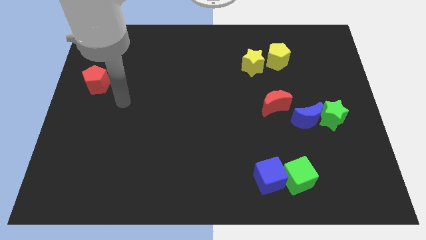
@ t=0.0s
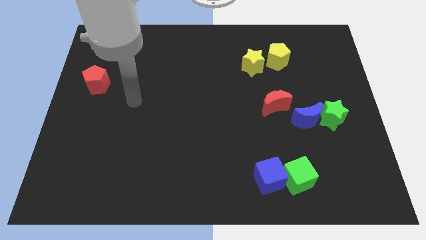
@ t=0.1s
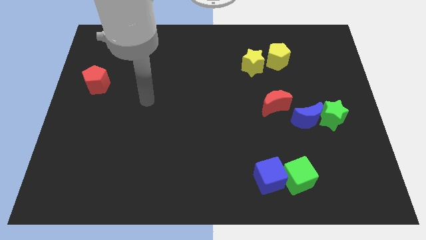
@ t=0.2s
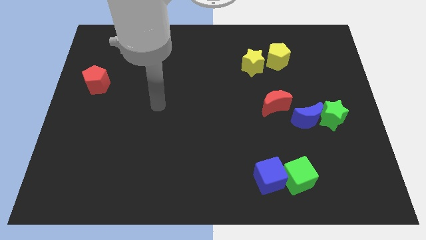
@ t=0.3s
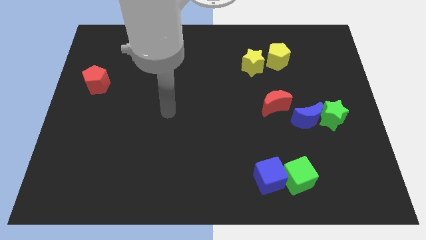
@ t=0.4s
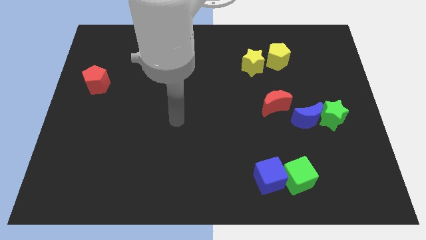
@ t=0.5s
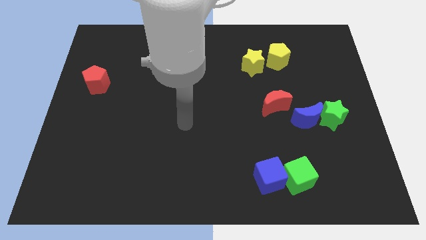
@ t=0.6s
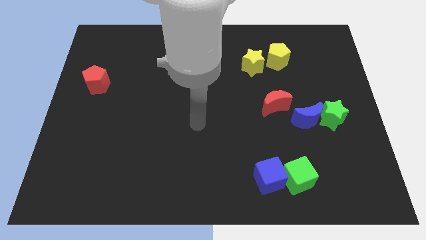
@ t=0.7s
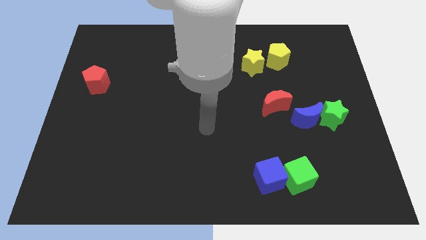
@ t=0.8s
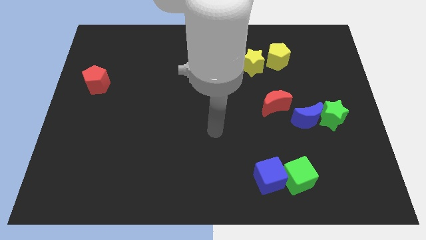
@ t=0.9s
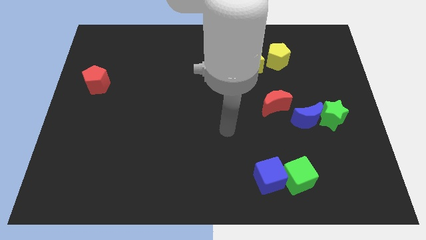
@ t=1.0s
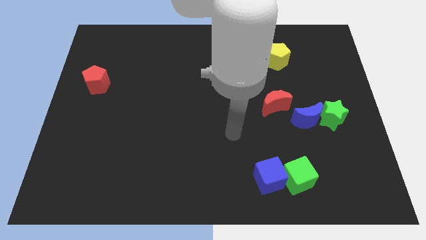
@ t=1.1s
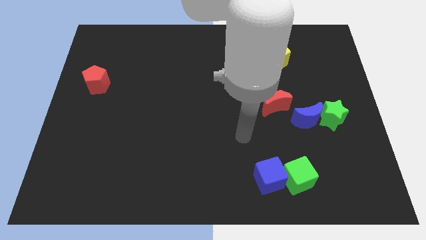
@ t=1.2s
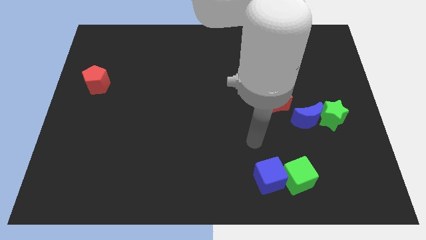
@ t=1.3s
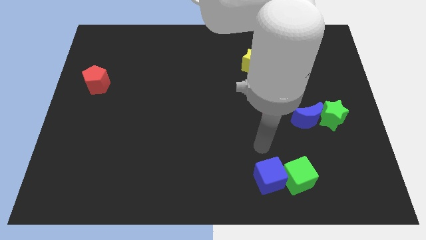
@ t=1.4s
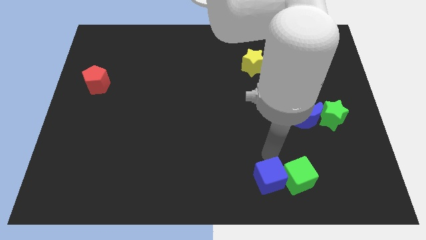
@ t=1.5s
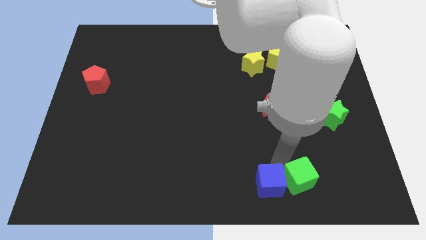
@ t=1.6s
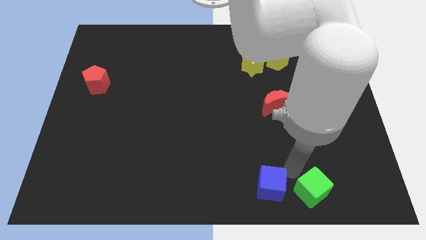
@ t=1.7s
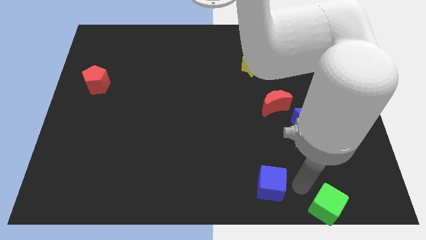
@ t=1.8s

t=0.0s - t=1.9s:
separate the blue cube from the green cube

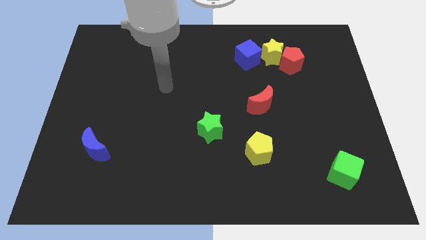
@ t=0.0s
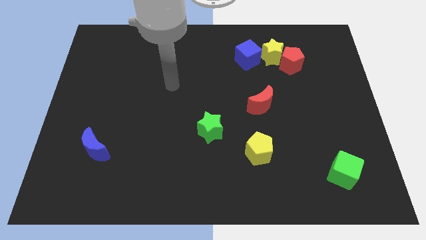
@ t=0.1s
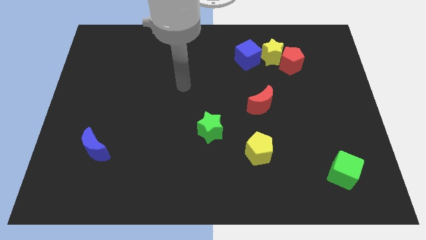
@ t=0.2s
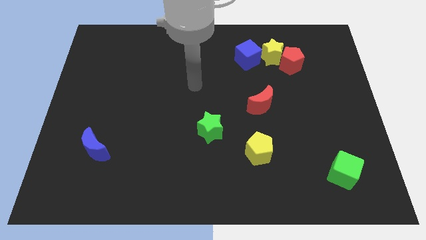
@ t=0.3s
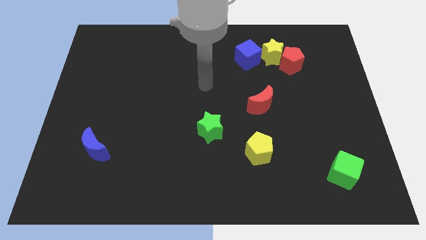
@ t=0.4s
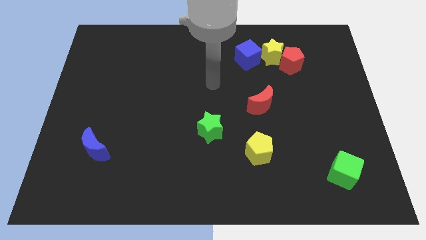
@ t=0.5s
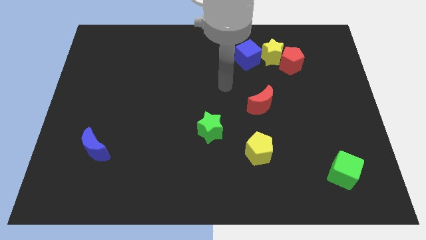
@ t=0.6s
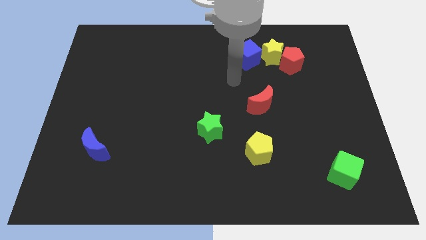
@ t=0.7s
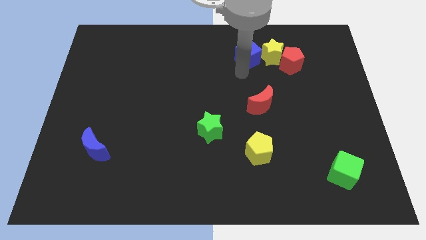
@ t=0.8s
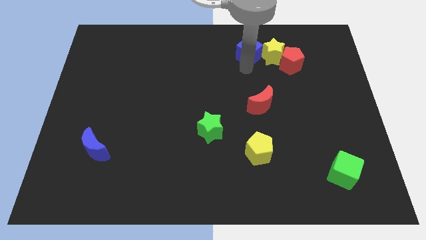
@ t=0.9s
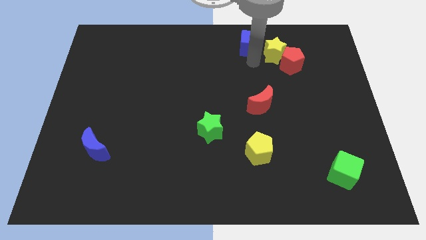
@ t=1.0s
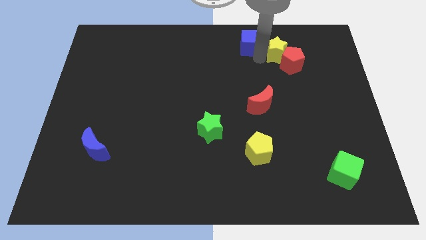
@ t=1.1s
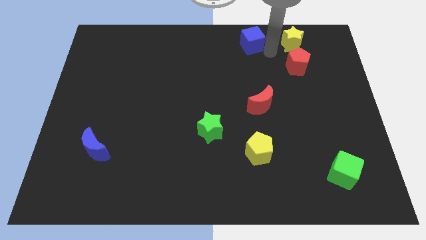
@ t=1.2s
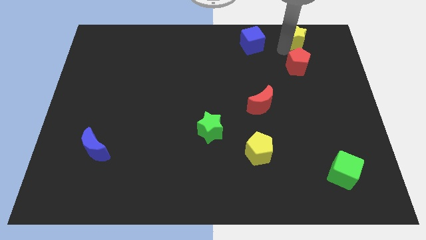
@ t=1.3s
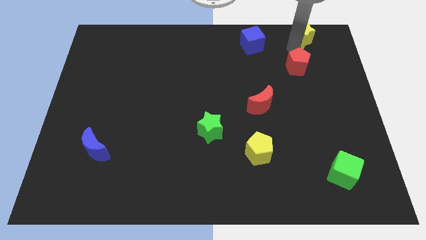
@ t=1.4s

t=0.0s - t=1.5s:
separate the red pentagon from the yellow star

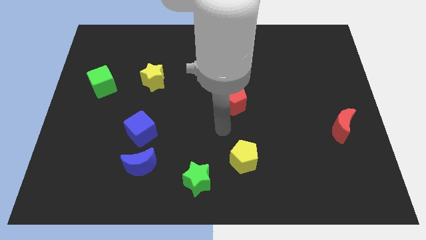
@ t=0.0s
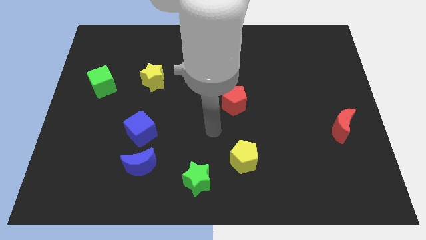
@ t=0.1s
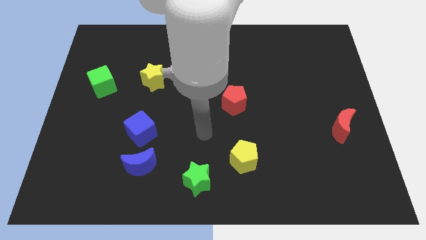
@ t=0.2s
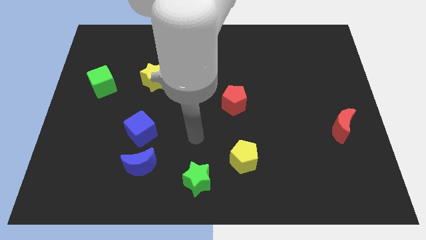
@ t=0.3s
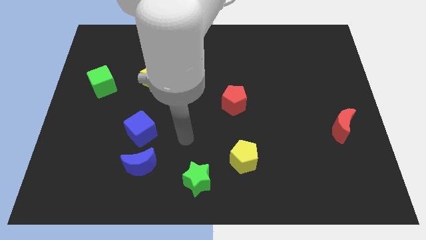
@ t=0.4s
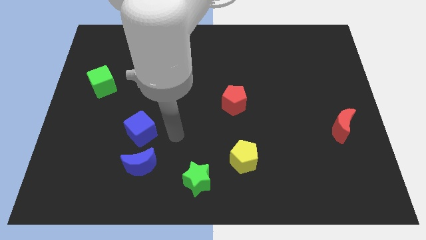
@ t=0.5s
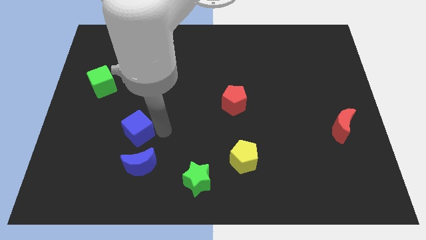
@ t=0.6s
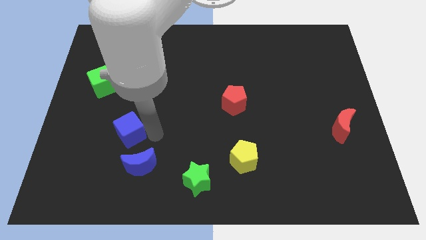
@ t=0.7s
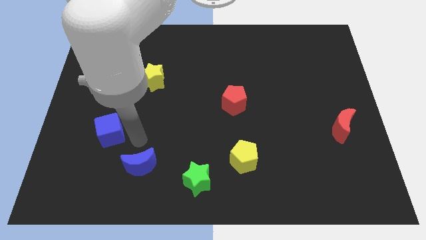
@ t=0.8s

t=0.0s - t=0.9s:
pull the blue moon apart from the blue cube

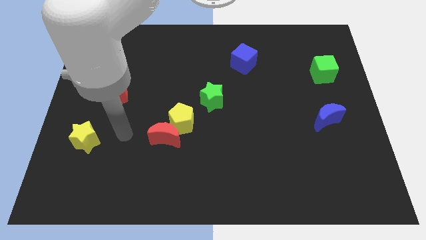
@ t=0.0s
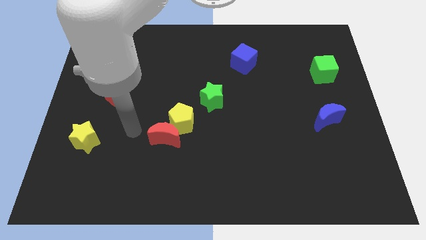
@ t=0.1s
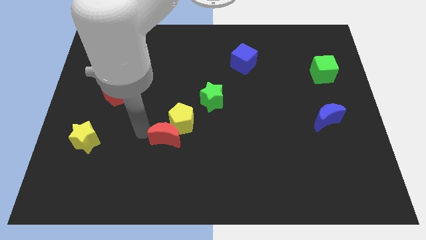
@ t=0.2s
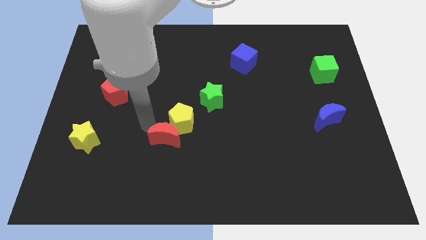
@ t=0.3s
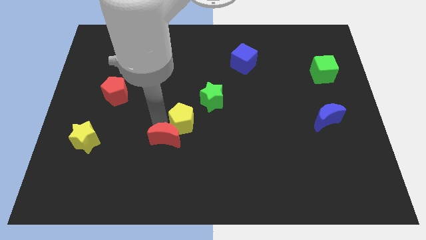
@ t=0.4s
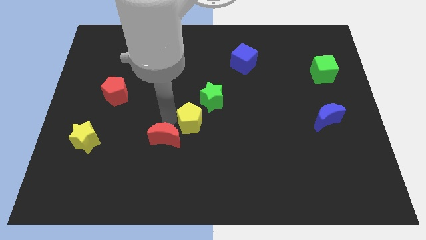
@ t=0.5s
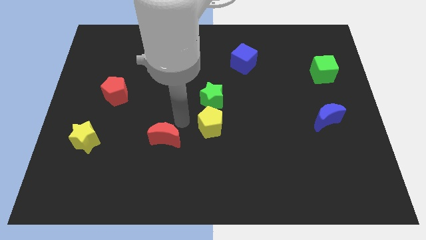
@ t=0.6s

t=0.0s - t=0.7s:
move the red moon away from the yellow pentagon

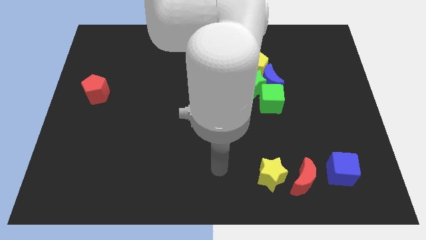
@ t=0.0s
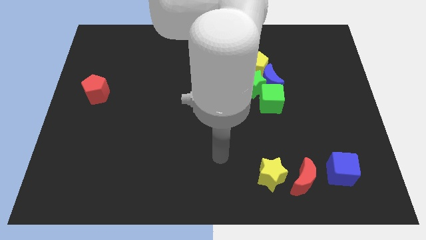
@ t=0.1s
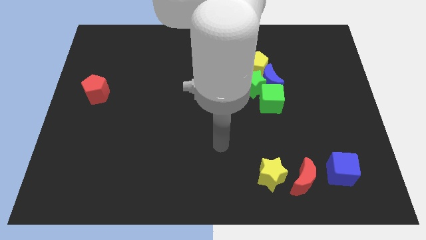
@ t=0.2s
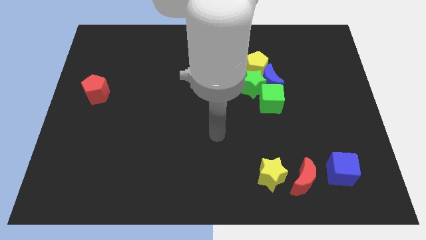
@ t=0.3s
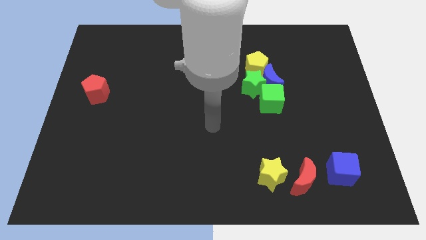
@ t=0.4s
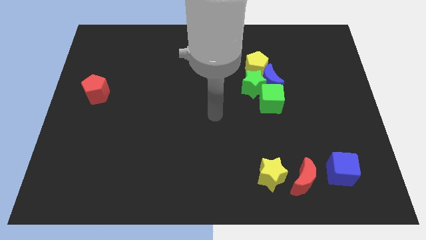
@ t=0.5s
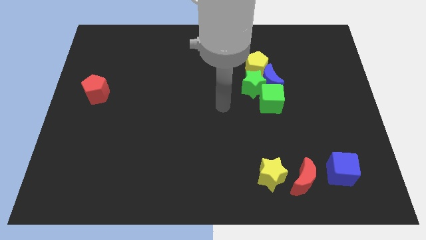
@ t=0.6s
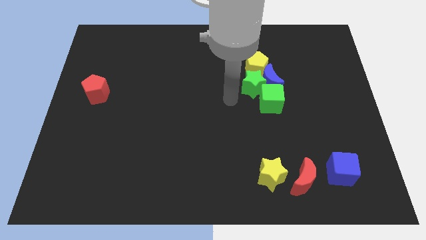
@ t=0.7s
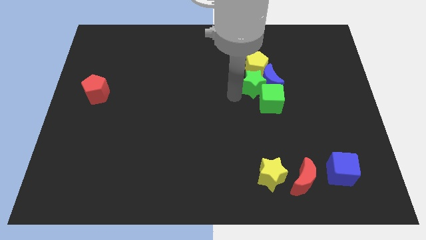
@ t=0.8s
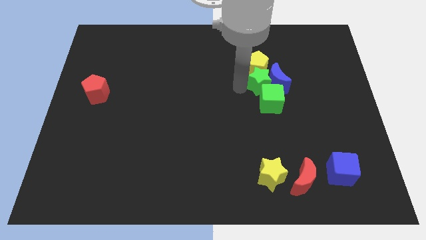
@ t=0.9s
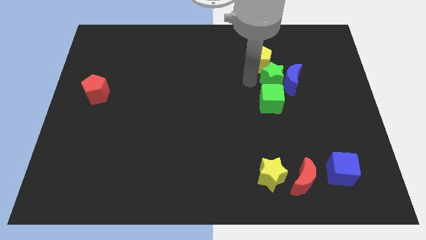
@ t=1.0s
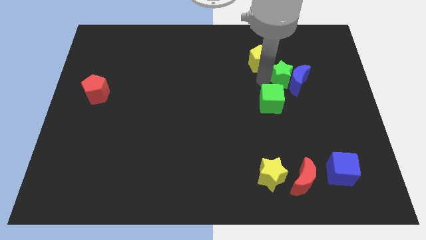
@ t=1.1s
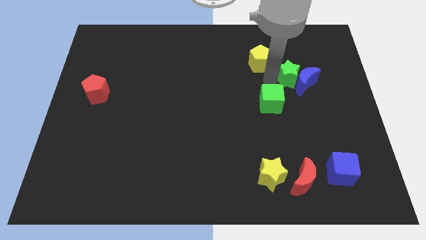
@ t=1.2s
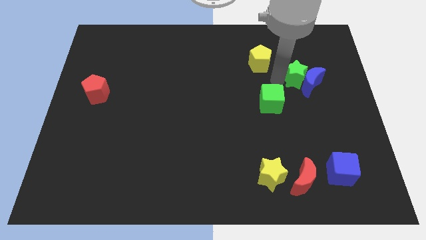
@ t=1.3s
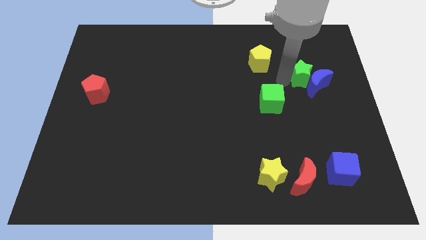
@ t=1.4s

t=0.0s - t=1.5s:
move the blue moon away from the clump

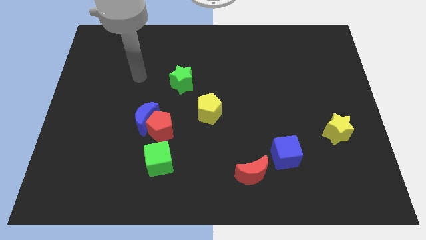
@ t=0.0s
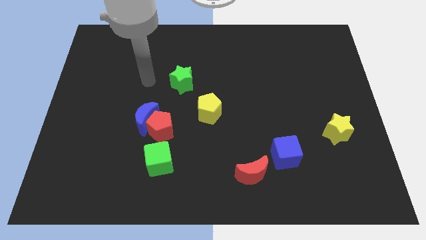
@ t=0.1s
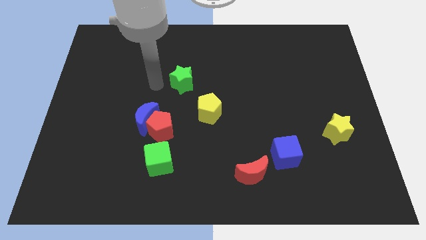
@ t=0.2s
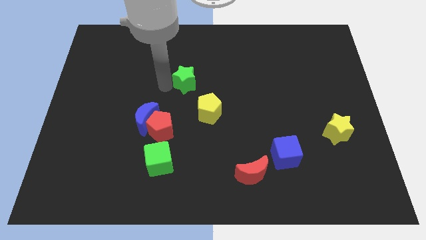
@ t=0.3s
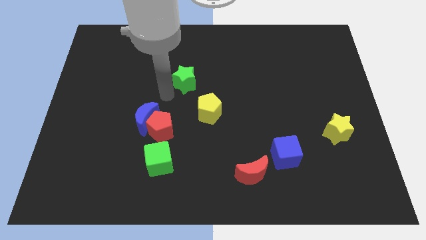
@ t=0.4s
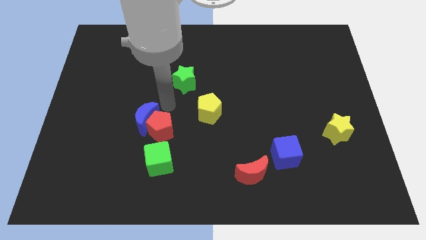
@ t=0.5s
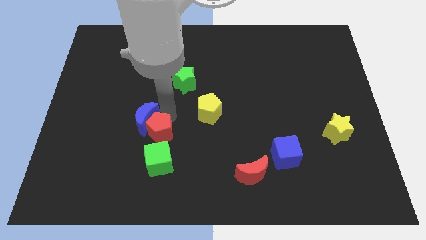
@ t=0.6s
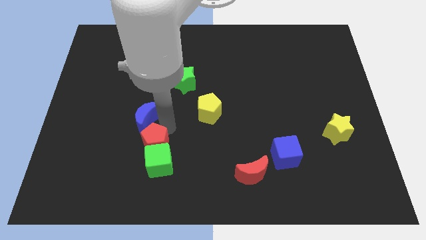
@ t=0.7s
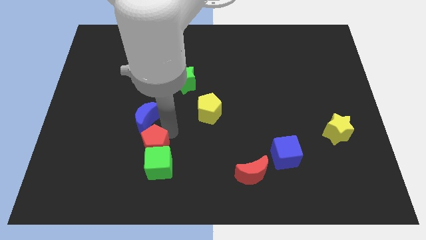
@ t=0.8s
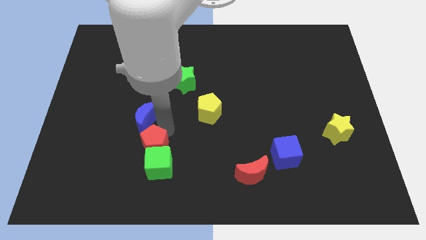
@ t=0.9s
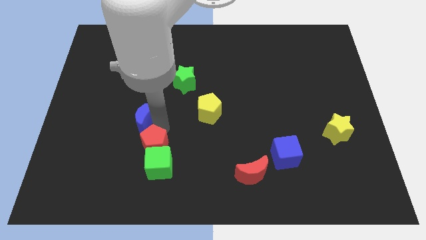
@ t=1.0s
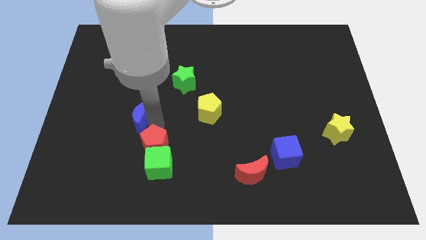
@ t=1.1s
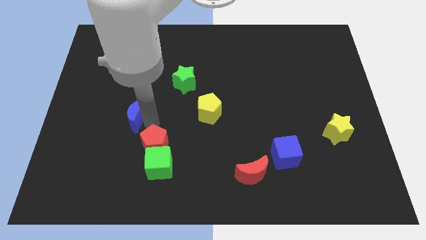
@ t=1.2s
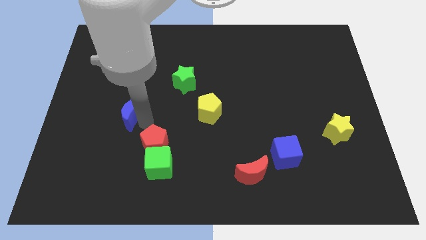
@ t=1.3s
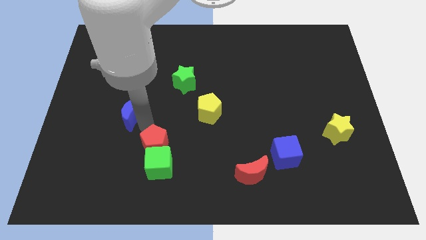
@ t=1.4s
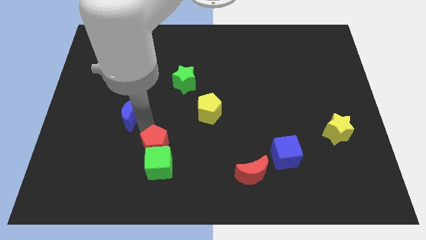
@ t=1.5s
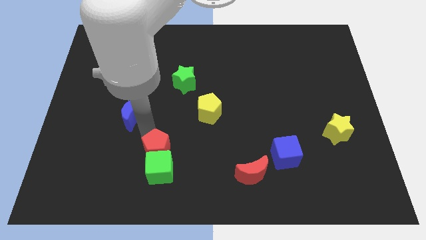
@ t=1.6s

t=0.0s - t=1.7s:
move the blue moon away from the red pentagon

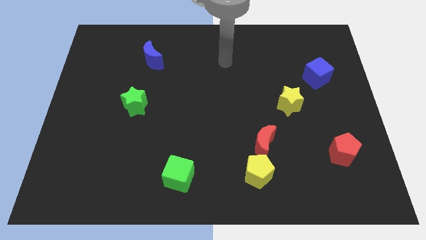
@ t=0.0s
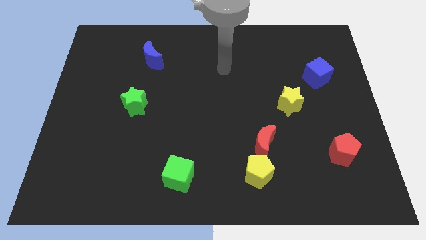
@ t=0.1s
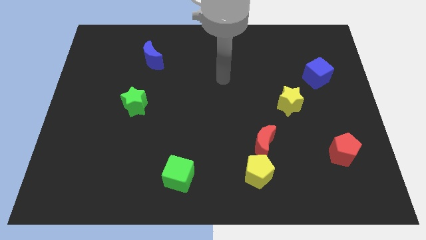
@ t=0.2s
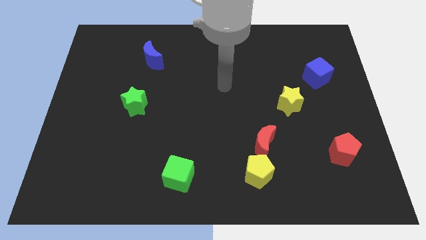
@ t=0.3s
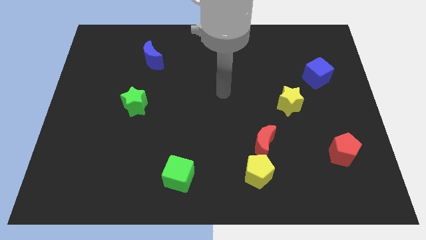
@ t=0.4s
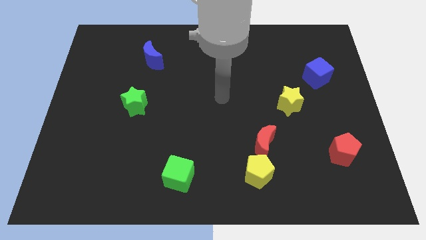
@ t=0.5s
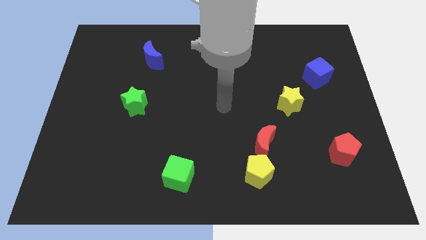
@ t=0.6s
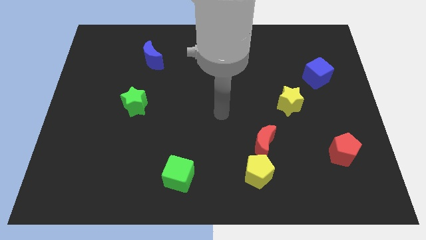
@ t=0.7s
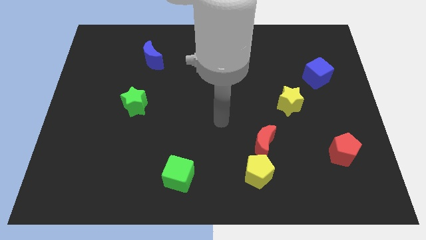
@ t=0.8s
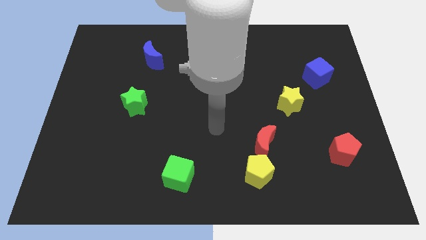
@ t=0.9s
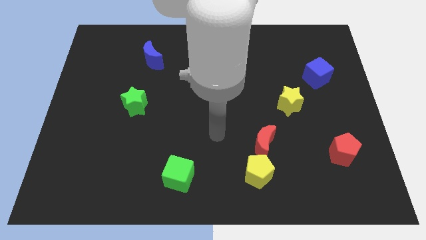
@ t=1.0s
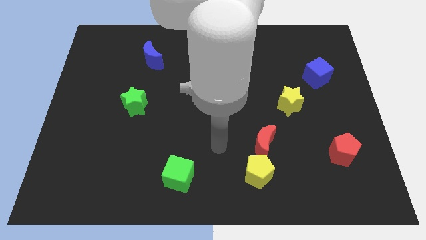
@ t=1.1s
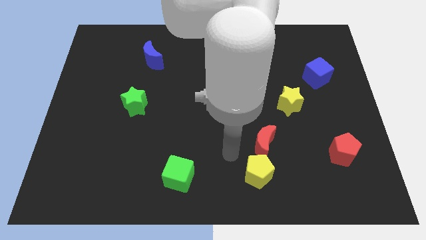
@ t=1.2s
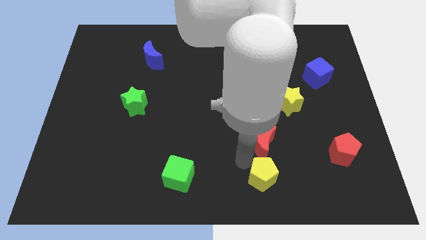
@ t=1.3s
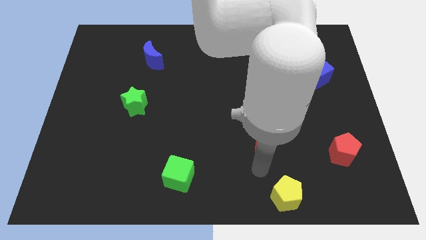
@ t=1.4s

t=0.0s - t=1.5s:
separate the red moon from the yellow pentagon
